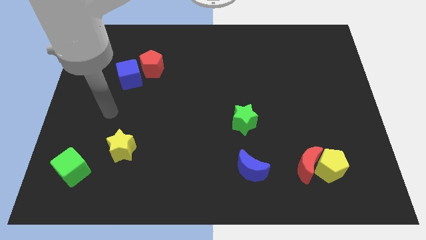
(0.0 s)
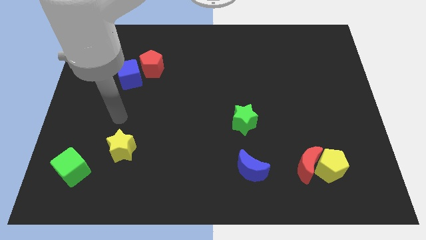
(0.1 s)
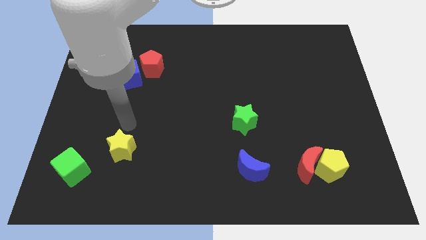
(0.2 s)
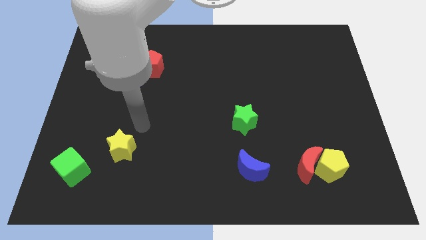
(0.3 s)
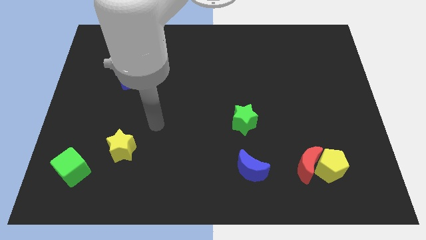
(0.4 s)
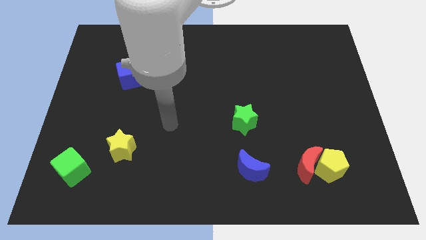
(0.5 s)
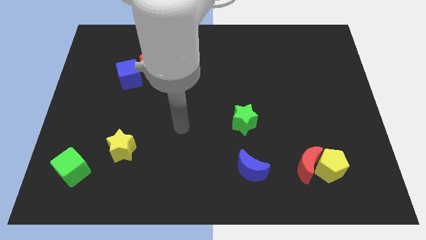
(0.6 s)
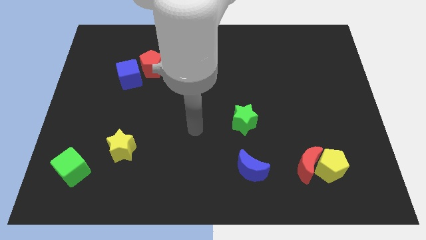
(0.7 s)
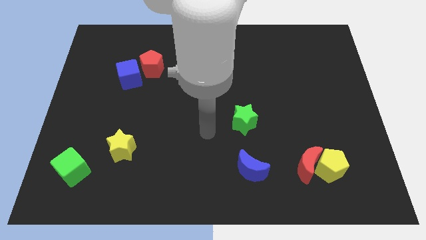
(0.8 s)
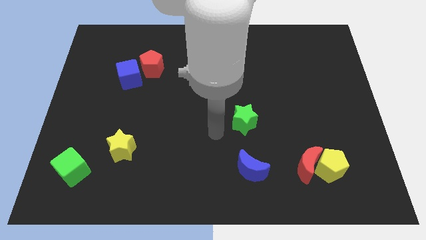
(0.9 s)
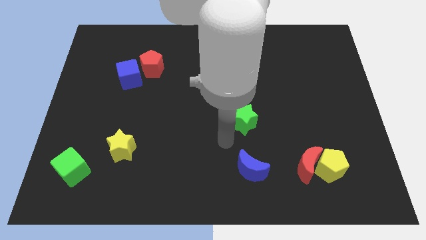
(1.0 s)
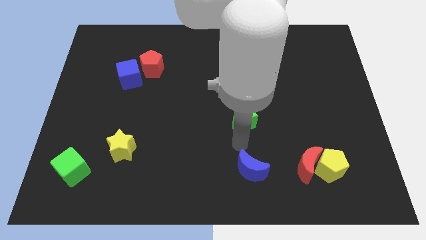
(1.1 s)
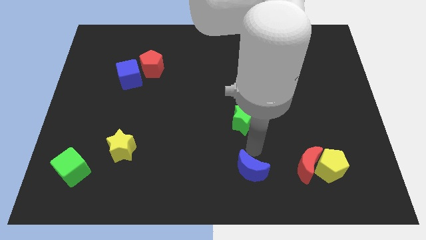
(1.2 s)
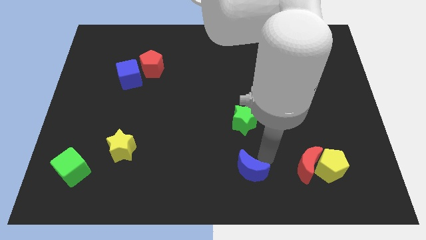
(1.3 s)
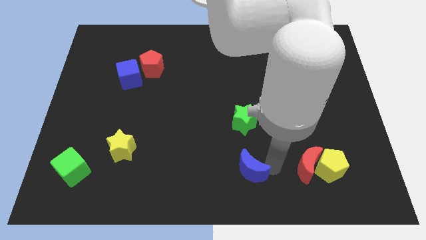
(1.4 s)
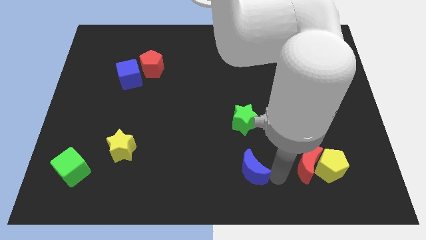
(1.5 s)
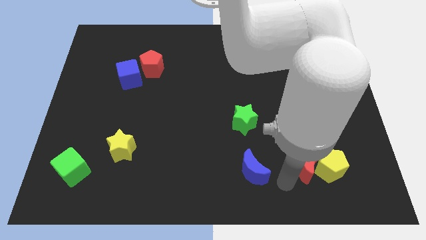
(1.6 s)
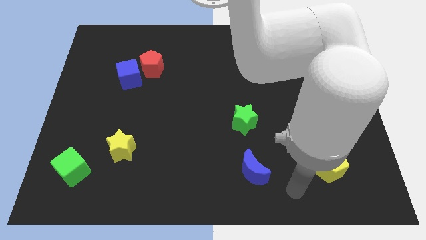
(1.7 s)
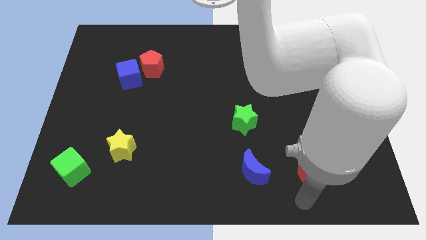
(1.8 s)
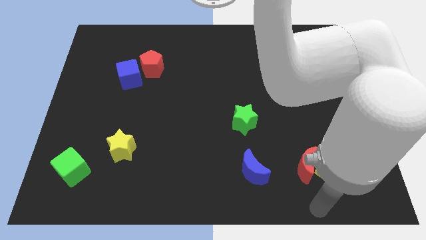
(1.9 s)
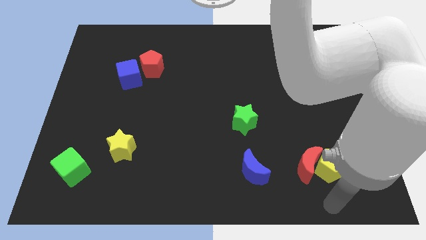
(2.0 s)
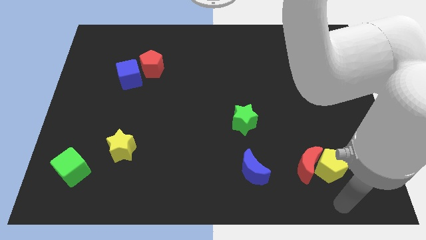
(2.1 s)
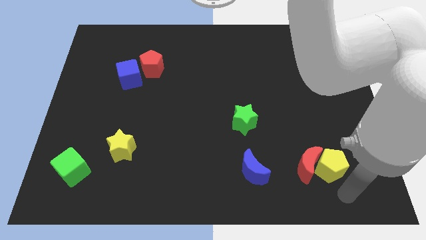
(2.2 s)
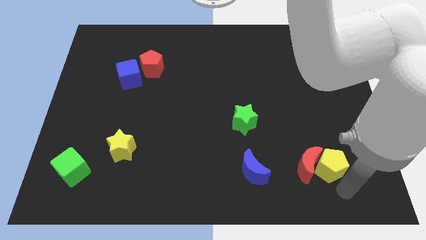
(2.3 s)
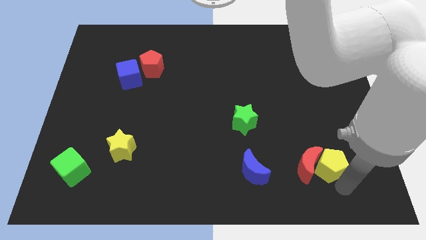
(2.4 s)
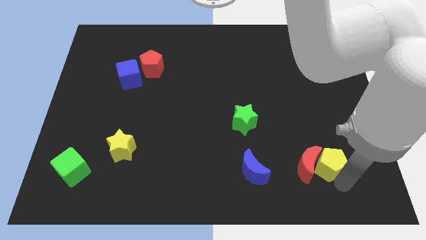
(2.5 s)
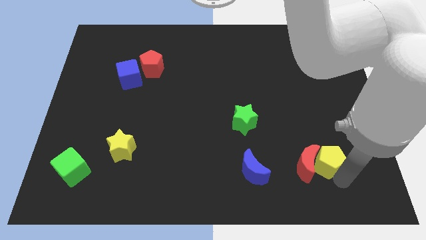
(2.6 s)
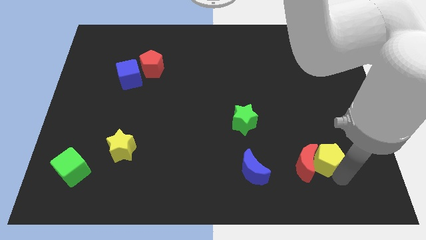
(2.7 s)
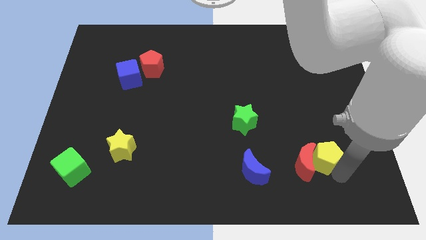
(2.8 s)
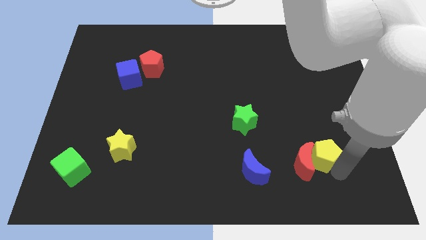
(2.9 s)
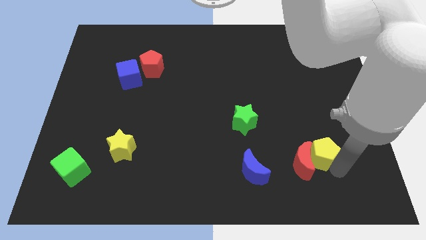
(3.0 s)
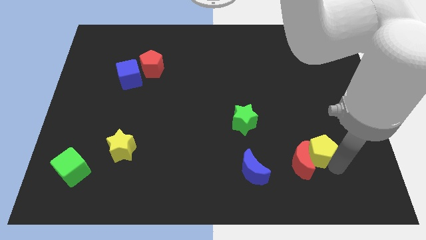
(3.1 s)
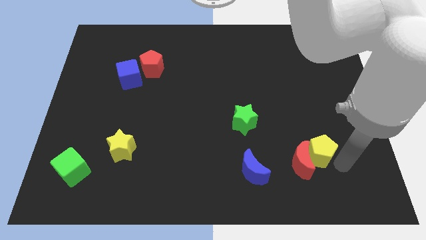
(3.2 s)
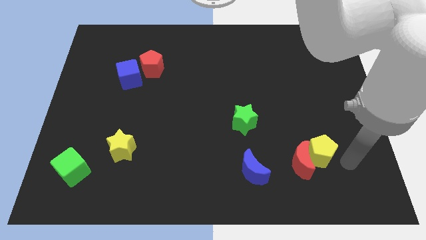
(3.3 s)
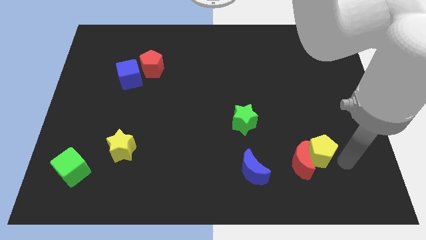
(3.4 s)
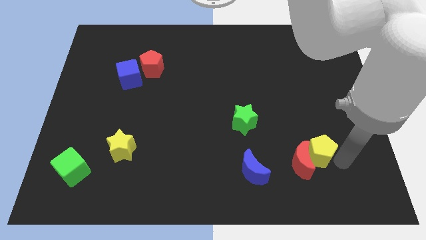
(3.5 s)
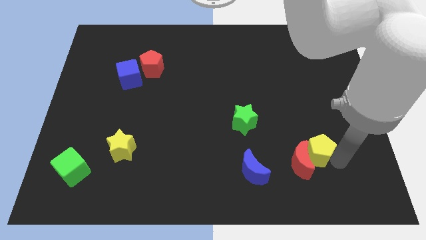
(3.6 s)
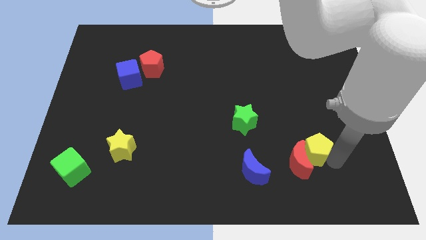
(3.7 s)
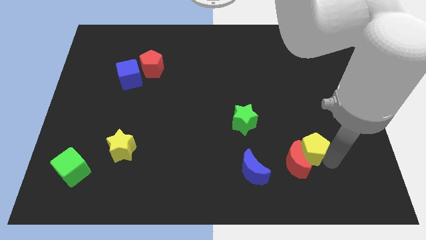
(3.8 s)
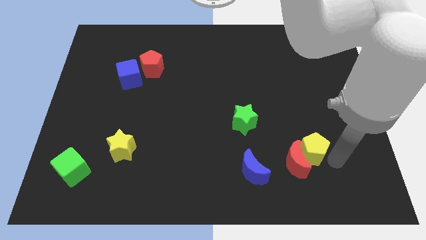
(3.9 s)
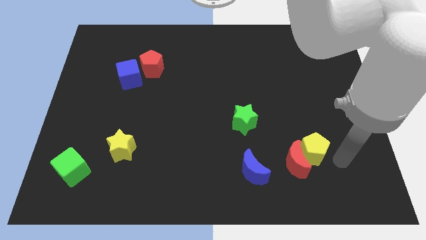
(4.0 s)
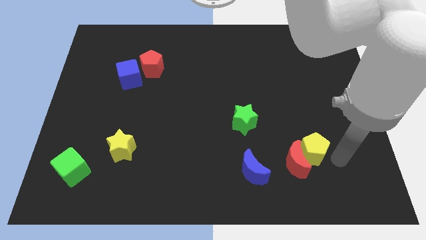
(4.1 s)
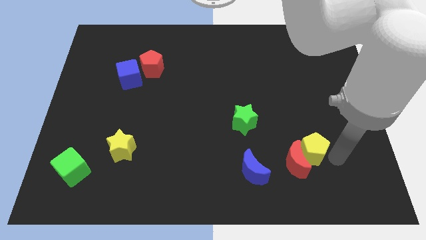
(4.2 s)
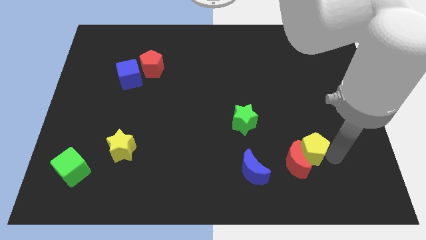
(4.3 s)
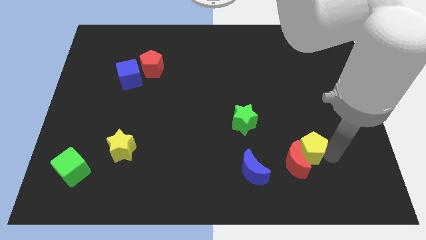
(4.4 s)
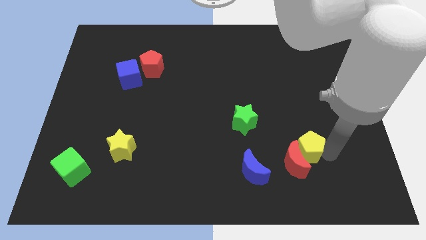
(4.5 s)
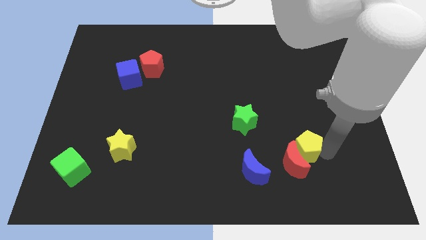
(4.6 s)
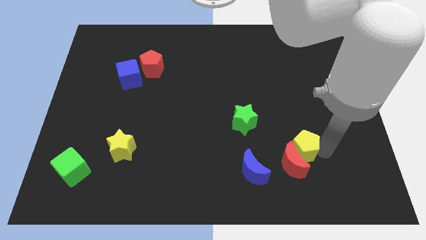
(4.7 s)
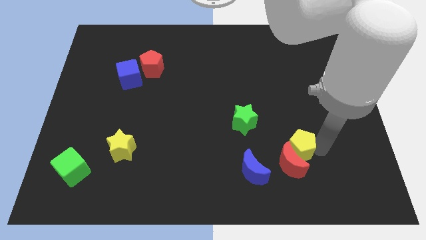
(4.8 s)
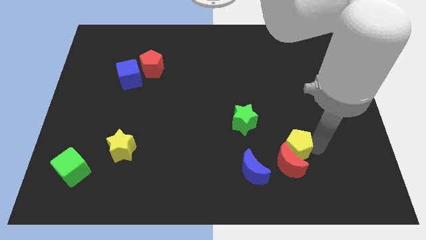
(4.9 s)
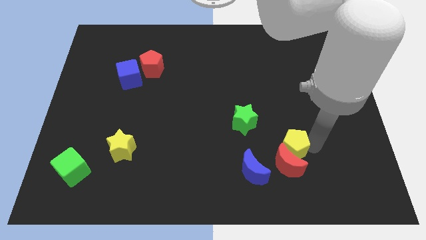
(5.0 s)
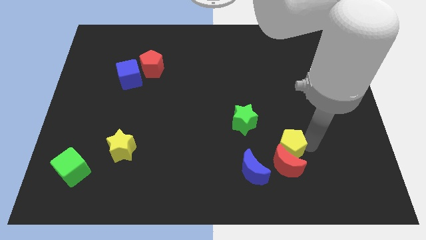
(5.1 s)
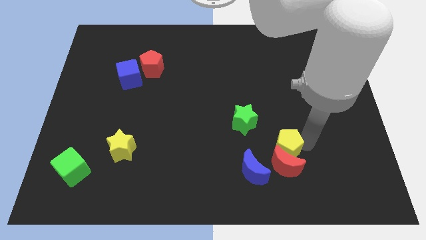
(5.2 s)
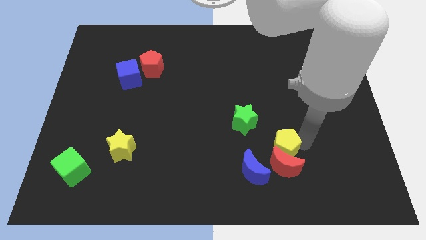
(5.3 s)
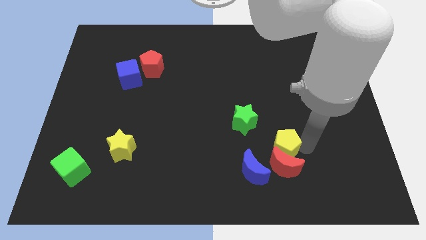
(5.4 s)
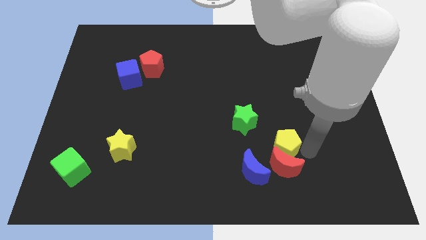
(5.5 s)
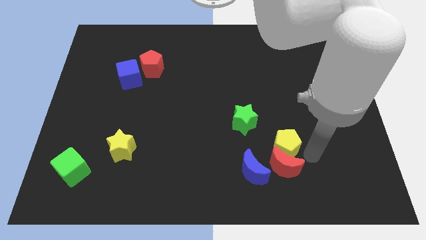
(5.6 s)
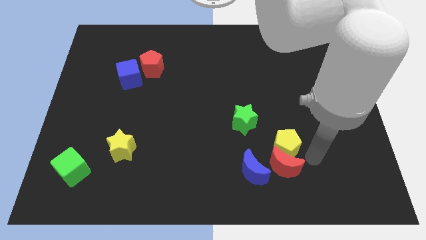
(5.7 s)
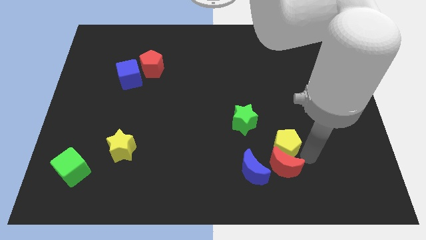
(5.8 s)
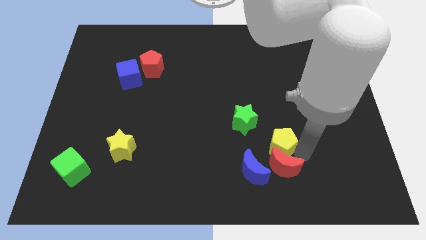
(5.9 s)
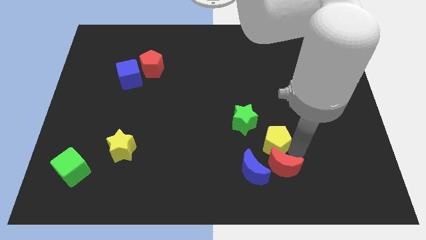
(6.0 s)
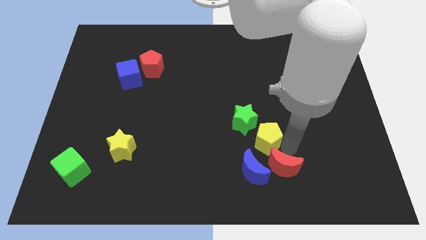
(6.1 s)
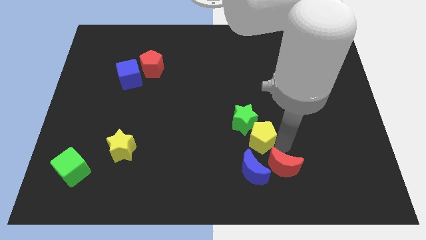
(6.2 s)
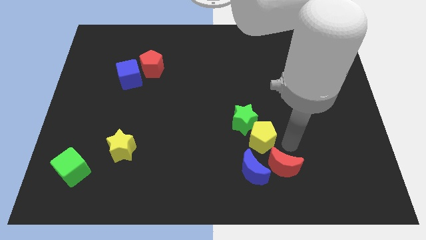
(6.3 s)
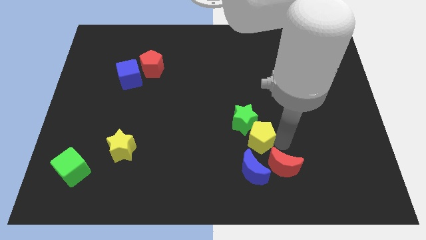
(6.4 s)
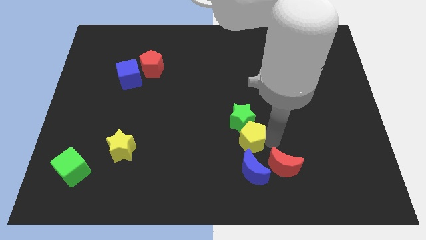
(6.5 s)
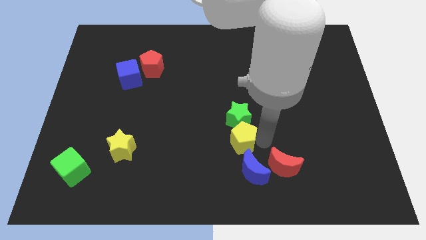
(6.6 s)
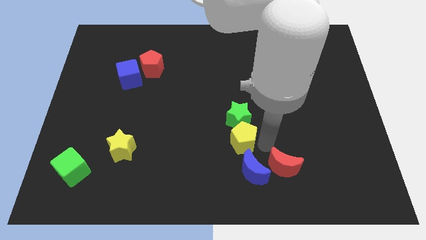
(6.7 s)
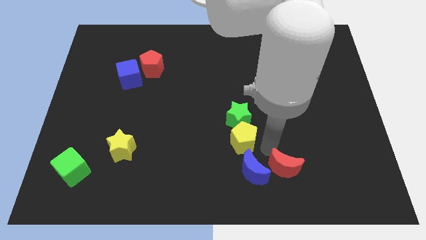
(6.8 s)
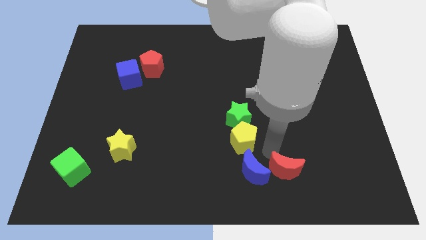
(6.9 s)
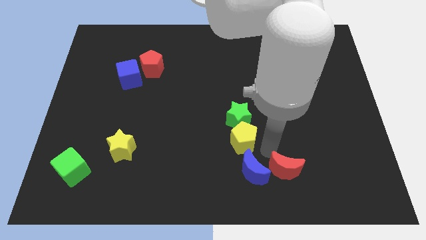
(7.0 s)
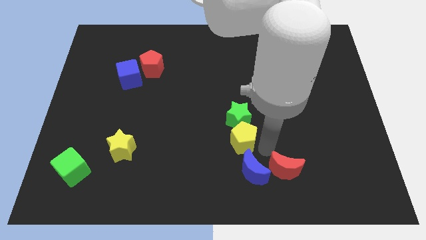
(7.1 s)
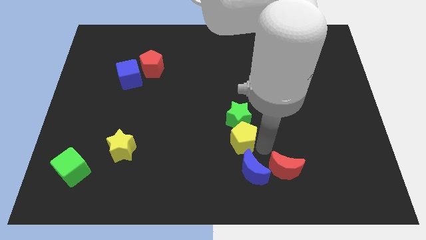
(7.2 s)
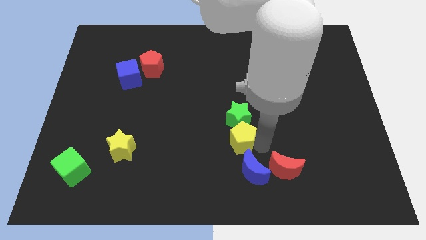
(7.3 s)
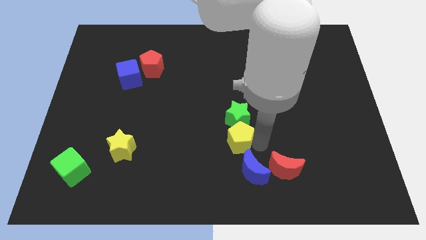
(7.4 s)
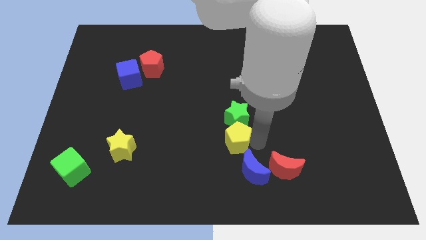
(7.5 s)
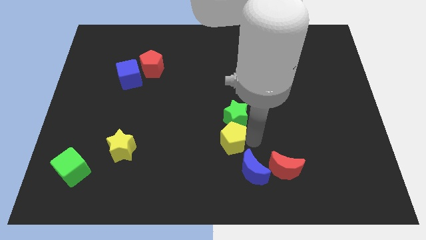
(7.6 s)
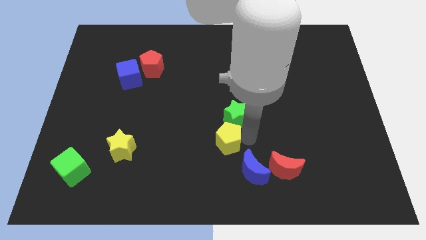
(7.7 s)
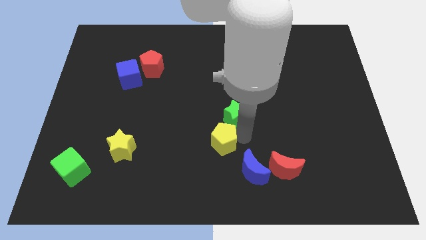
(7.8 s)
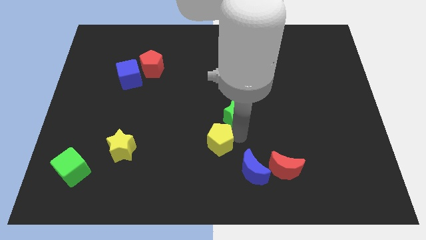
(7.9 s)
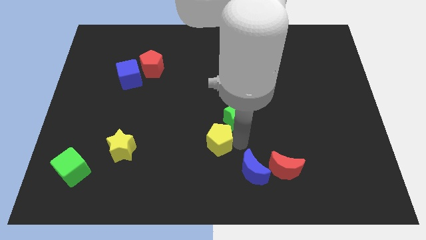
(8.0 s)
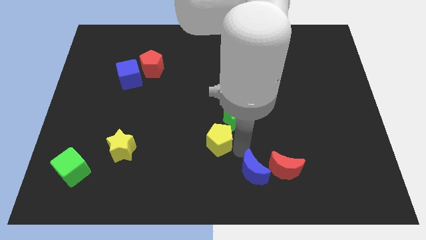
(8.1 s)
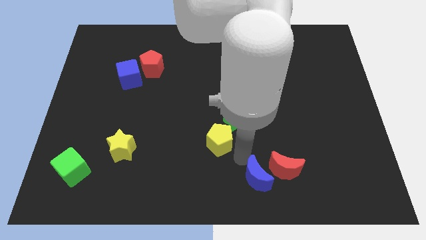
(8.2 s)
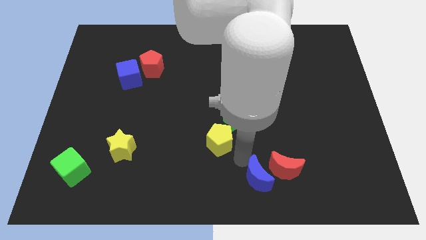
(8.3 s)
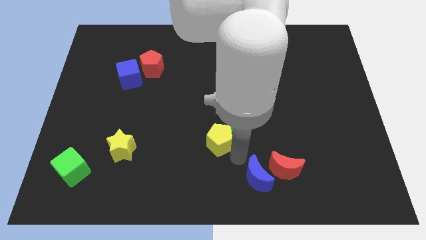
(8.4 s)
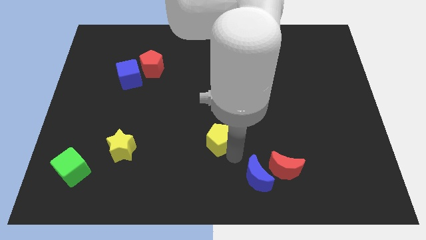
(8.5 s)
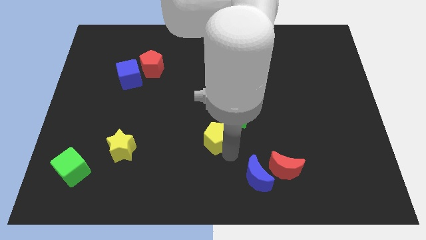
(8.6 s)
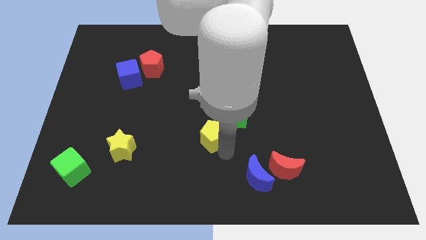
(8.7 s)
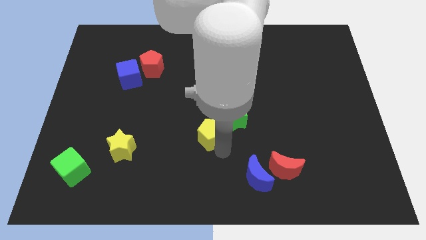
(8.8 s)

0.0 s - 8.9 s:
slide the yellow pentagon left of the green star
